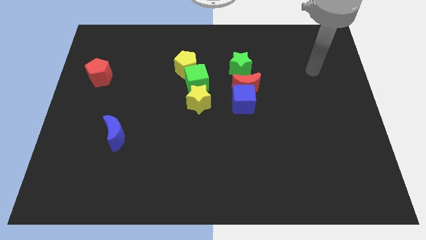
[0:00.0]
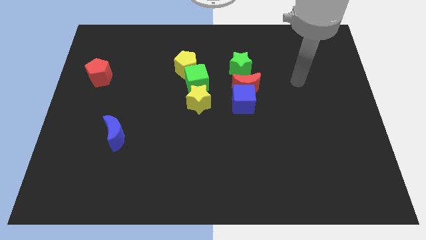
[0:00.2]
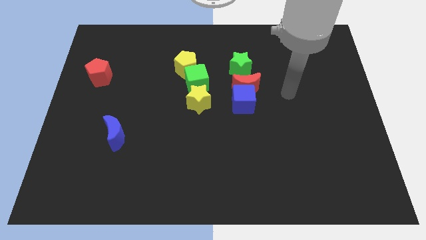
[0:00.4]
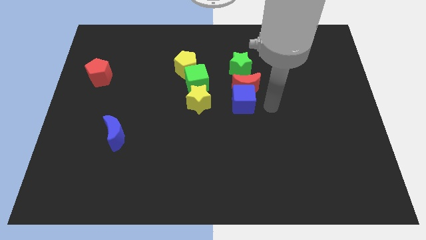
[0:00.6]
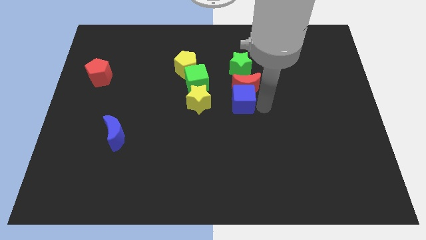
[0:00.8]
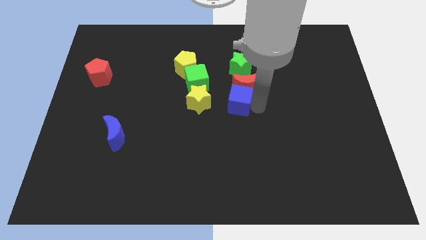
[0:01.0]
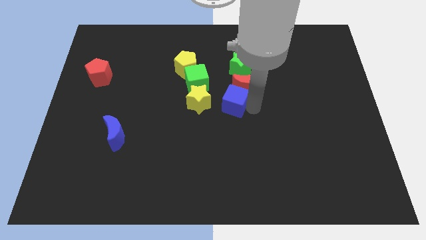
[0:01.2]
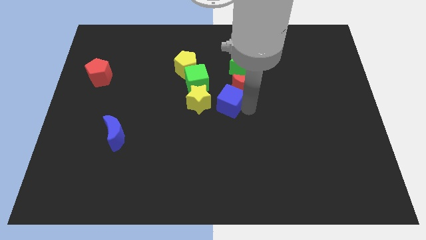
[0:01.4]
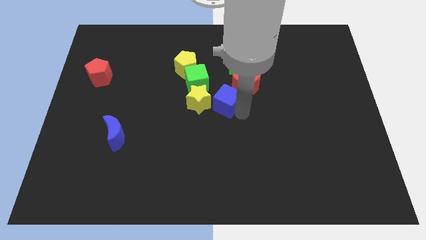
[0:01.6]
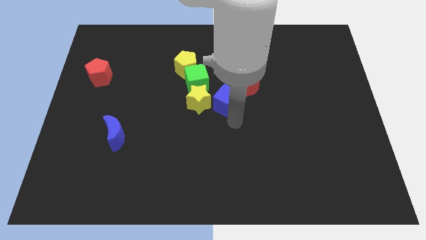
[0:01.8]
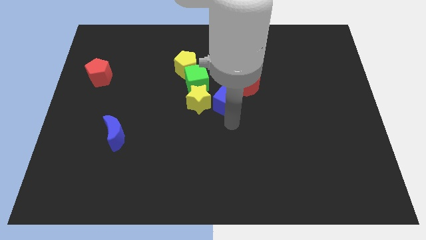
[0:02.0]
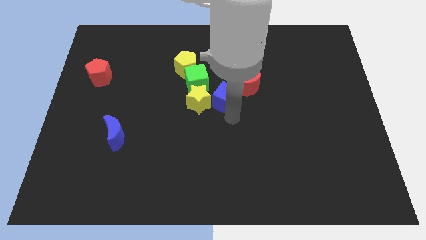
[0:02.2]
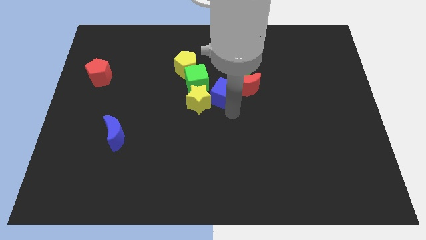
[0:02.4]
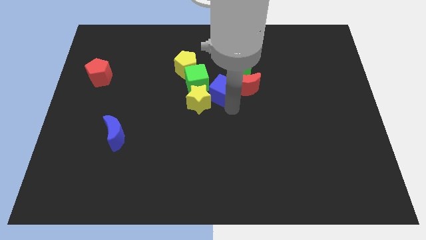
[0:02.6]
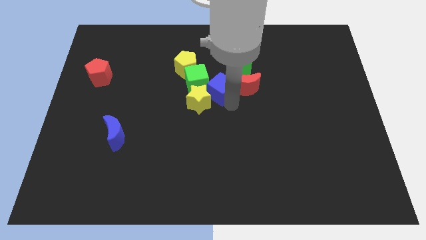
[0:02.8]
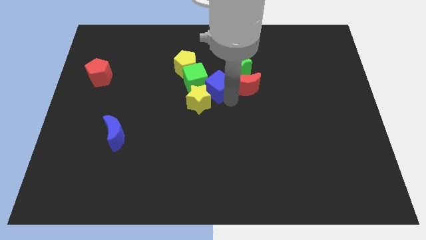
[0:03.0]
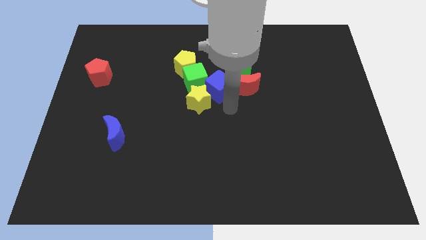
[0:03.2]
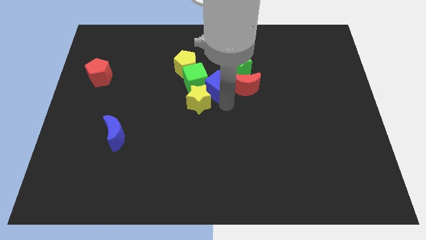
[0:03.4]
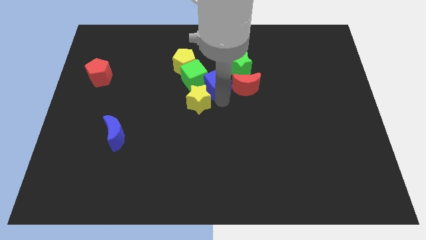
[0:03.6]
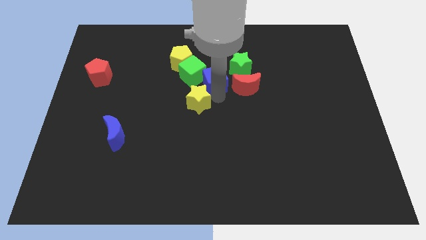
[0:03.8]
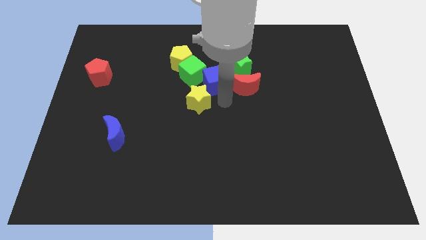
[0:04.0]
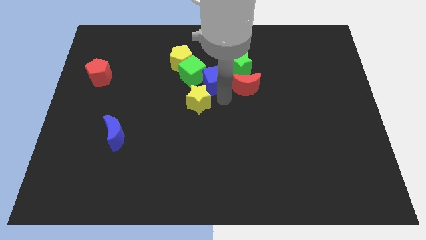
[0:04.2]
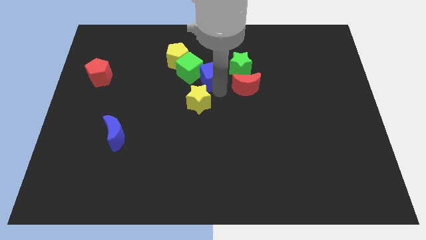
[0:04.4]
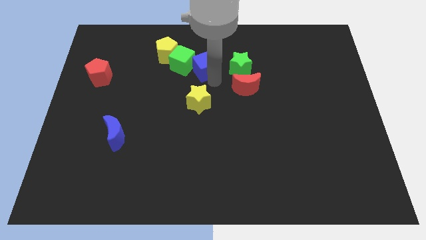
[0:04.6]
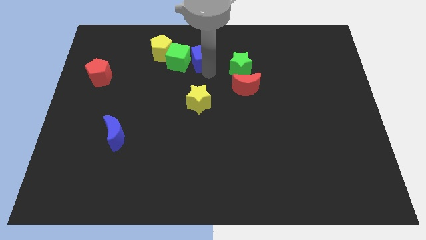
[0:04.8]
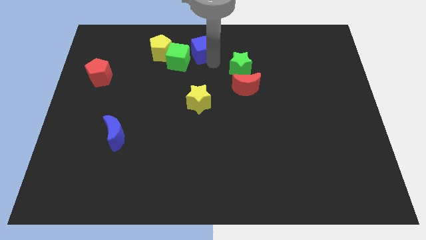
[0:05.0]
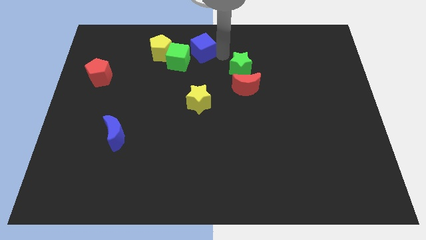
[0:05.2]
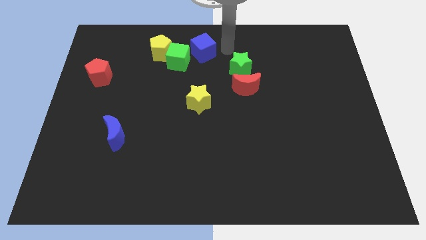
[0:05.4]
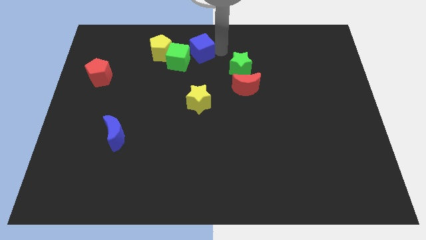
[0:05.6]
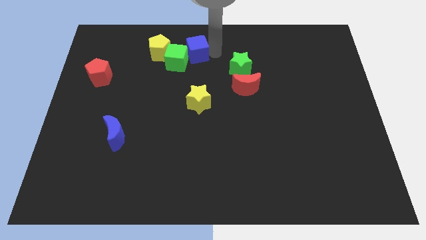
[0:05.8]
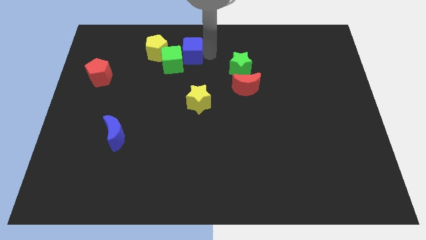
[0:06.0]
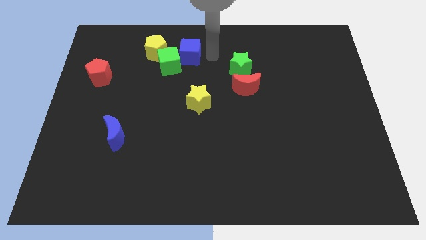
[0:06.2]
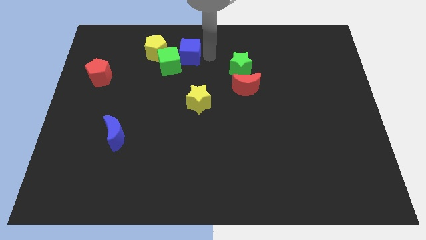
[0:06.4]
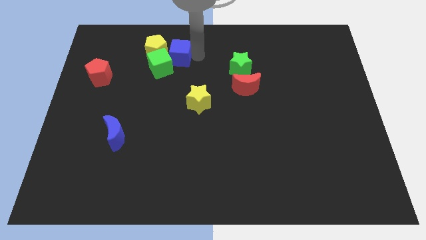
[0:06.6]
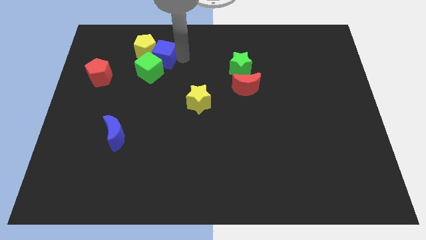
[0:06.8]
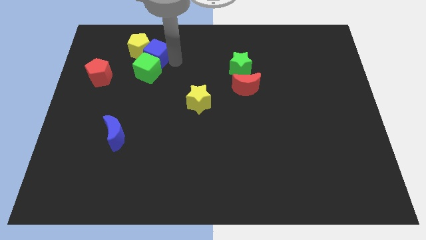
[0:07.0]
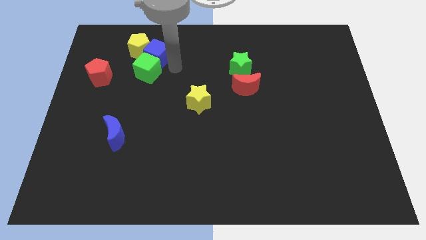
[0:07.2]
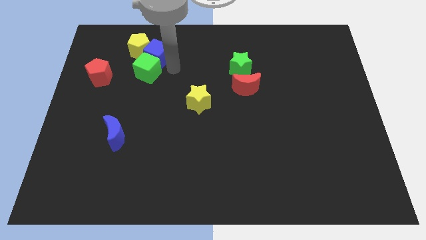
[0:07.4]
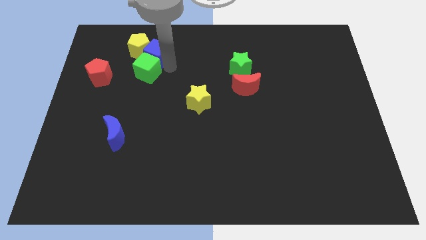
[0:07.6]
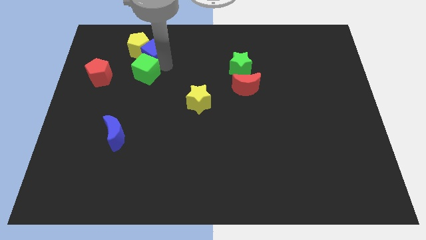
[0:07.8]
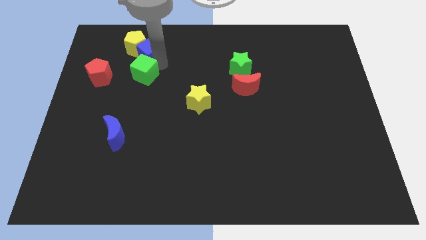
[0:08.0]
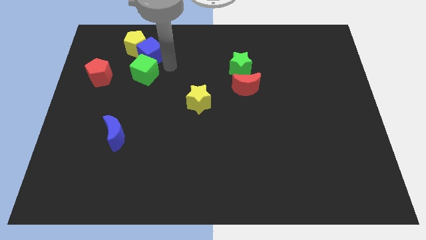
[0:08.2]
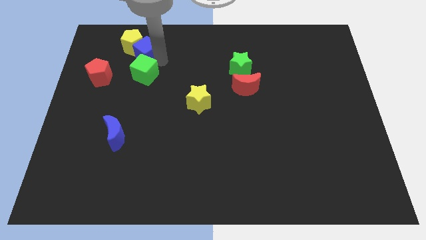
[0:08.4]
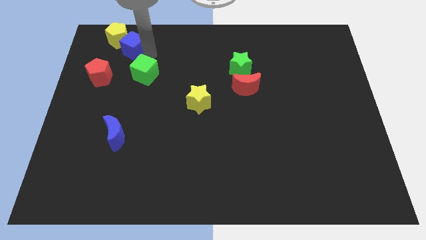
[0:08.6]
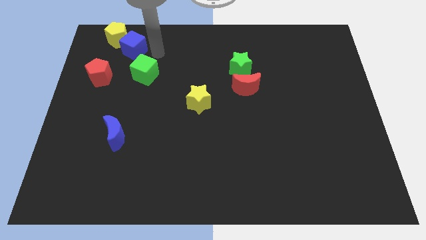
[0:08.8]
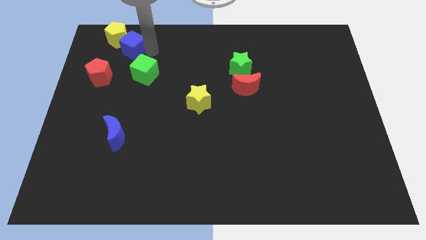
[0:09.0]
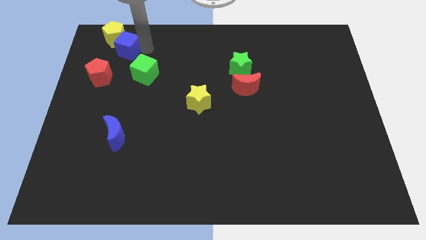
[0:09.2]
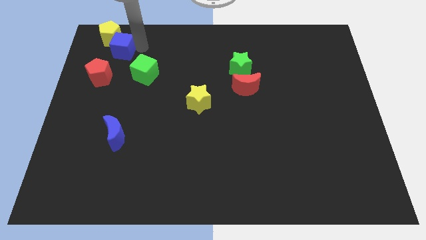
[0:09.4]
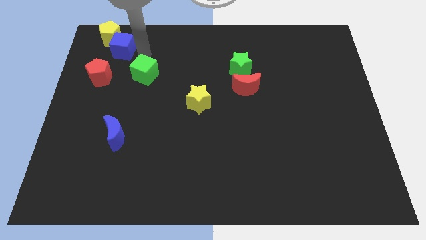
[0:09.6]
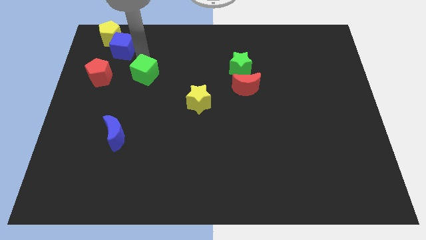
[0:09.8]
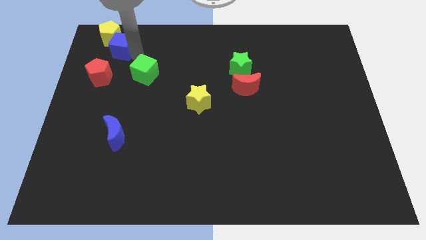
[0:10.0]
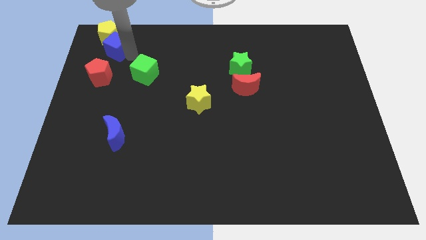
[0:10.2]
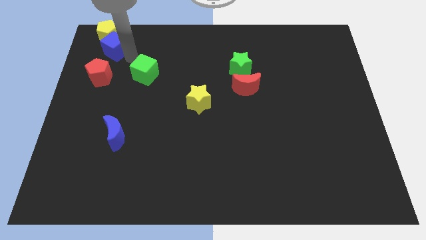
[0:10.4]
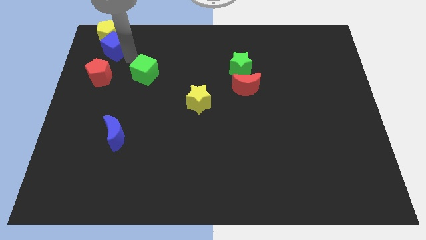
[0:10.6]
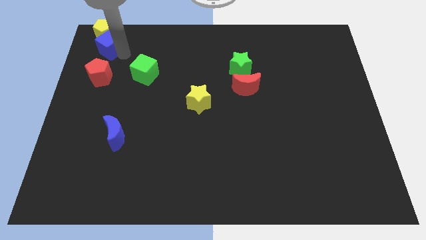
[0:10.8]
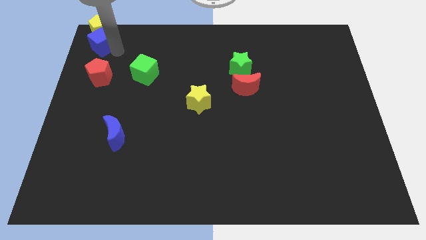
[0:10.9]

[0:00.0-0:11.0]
slide the blue cube to the top left of the board
